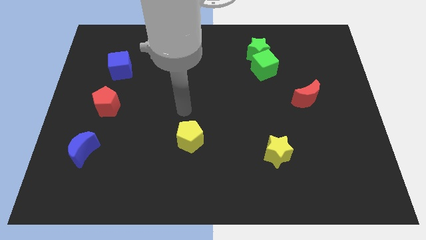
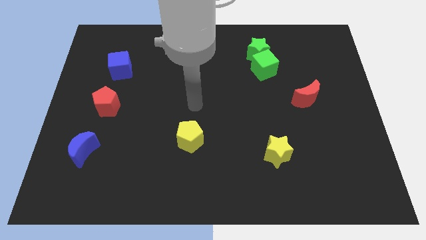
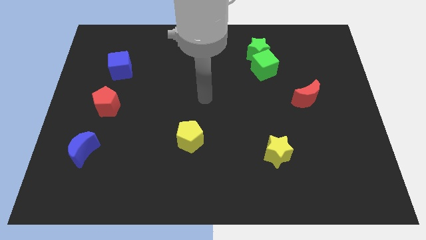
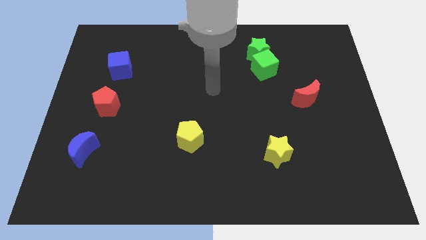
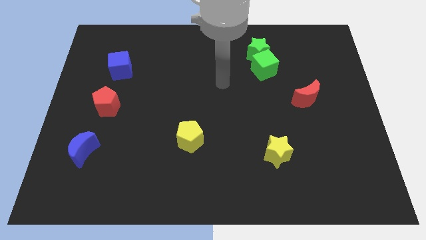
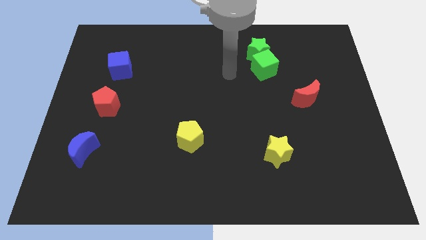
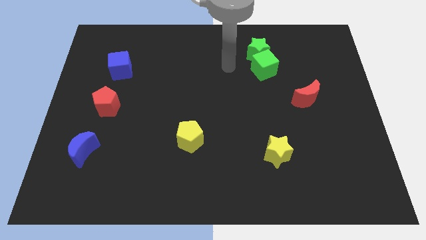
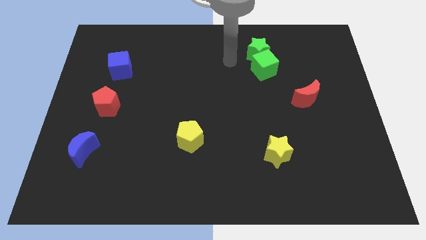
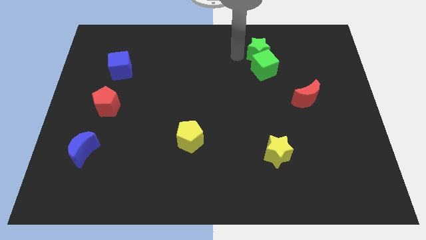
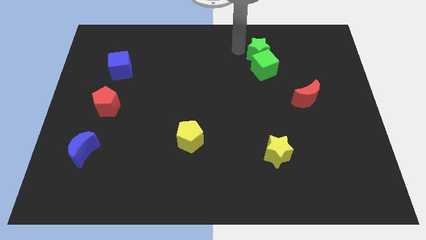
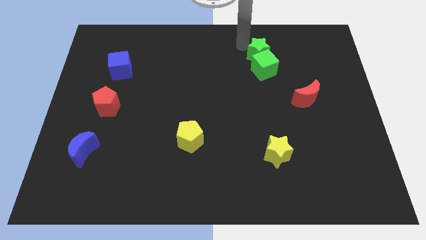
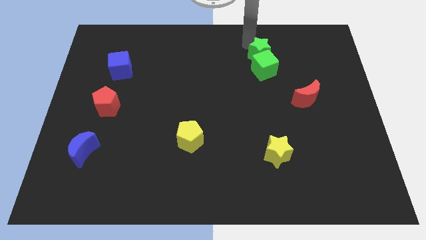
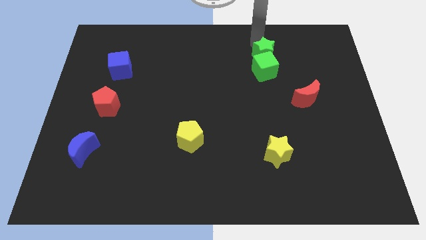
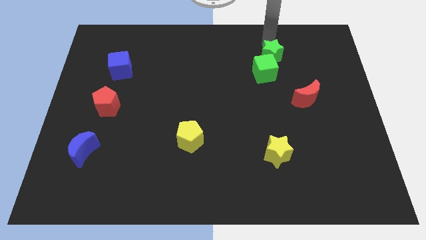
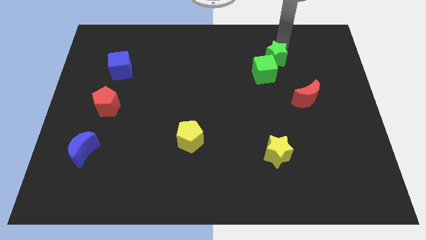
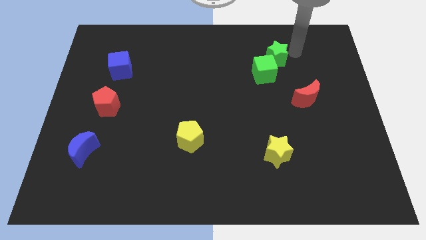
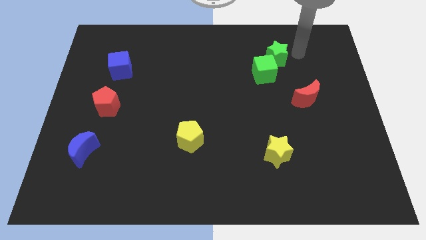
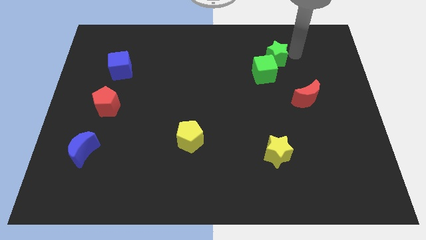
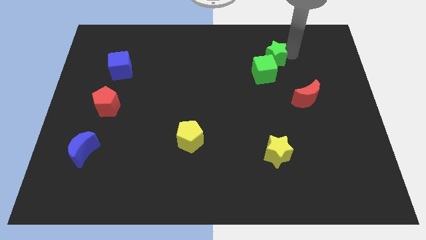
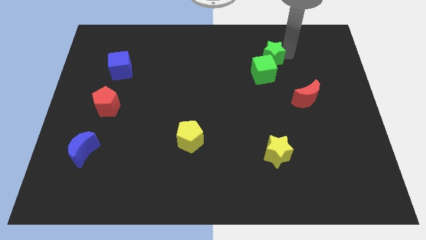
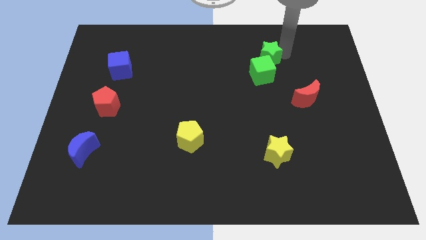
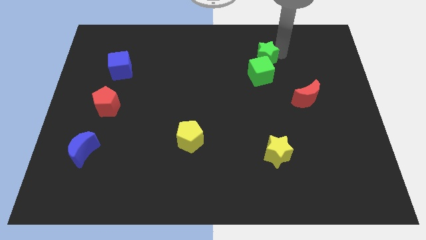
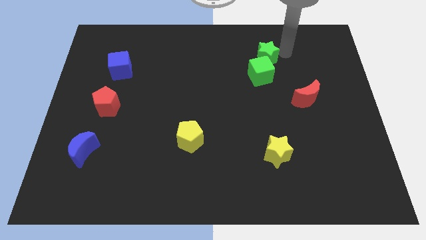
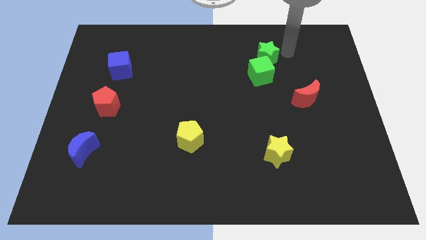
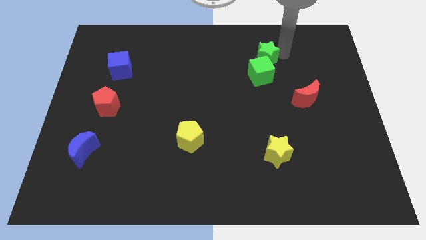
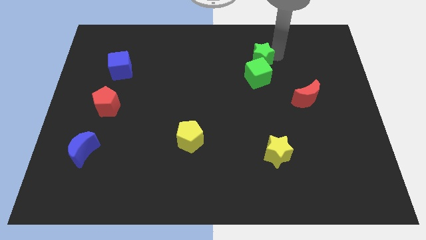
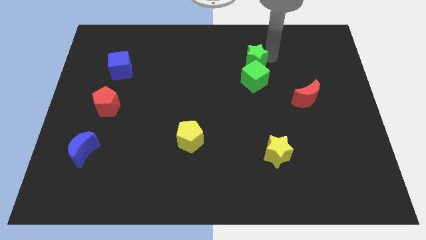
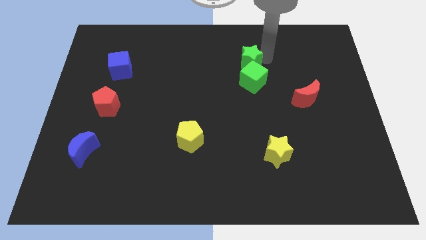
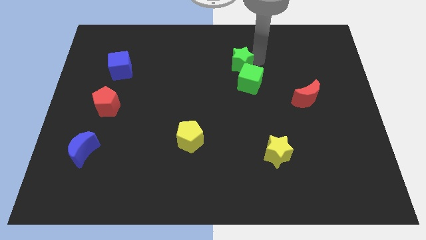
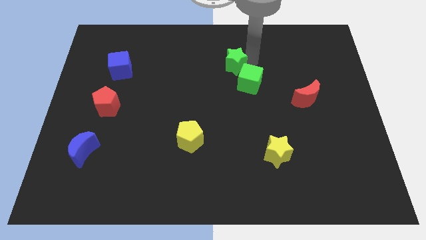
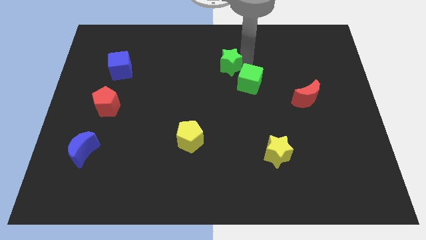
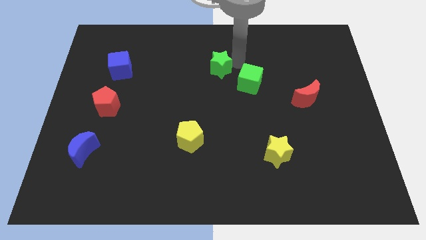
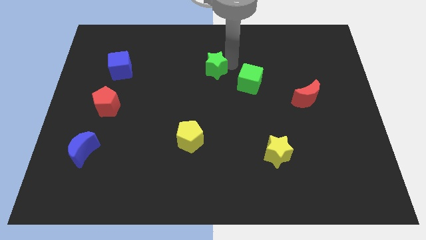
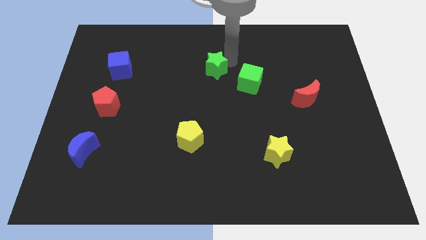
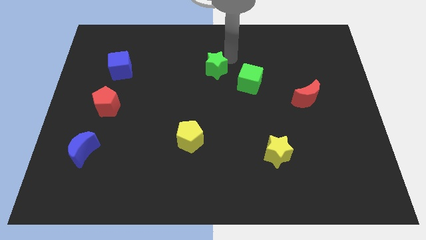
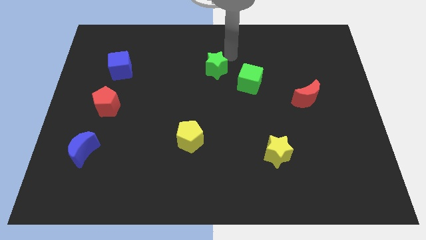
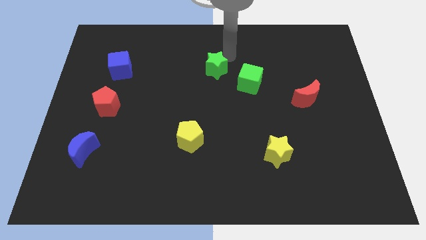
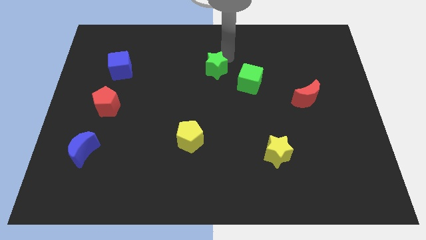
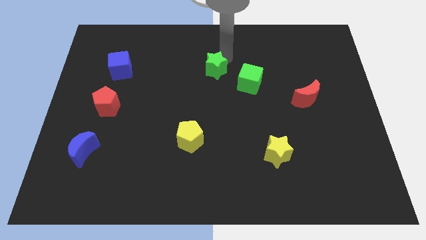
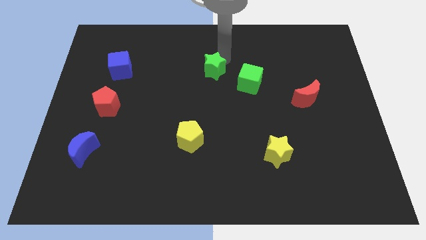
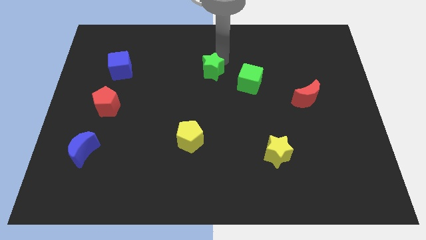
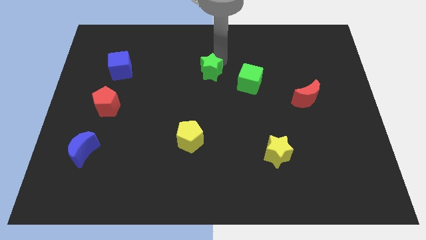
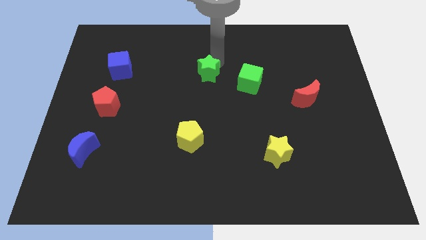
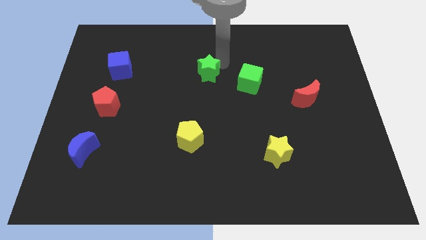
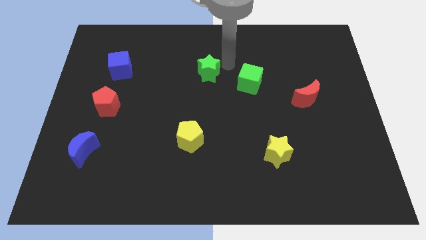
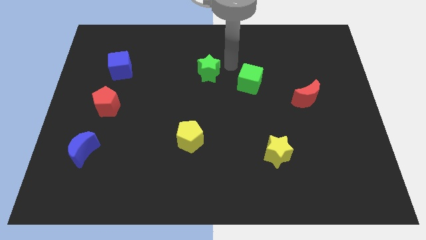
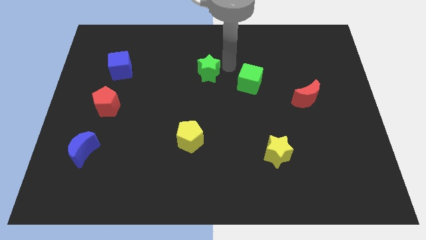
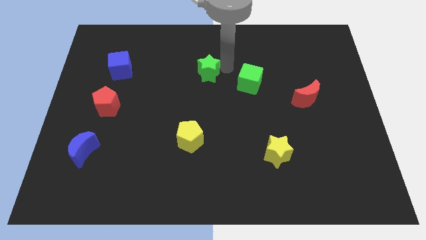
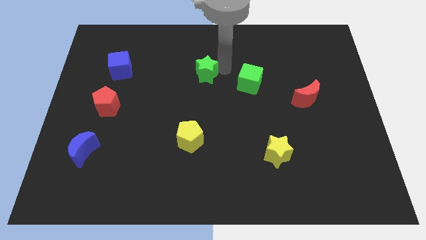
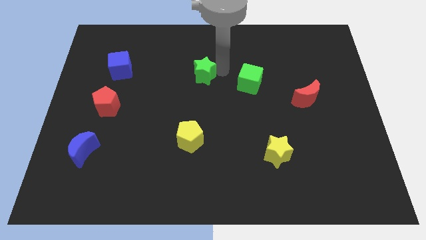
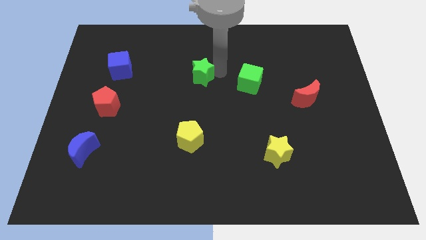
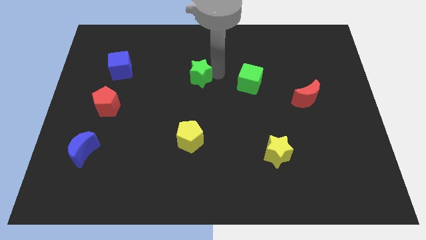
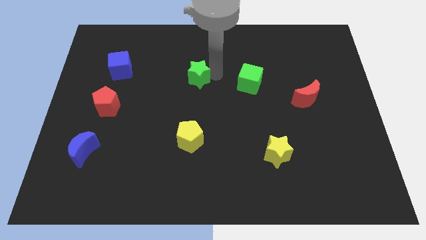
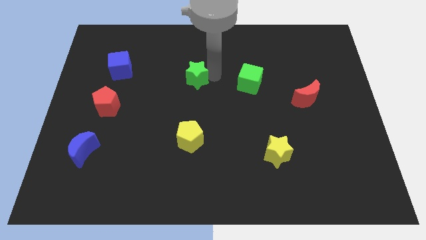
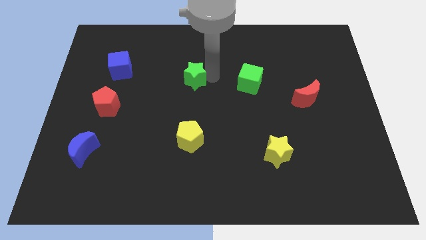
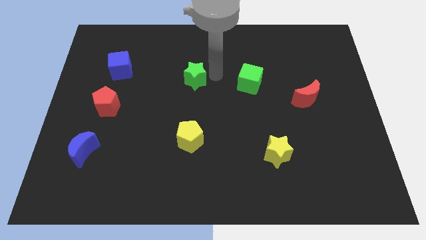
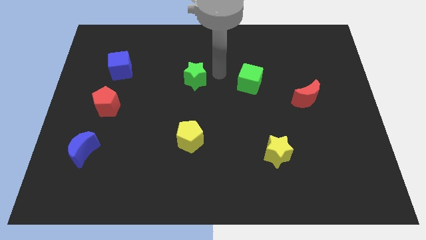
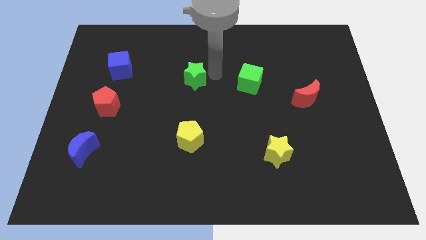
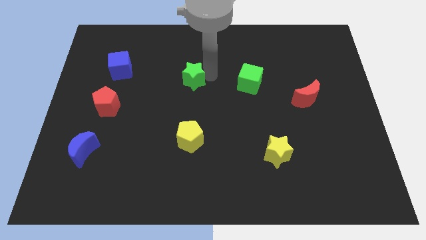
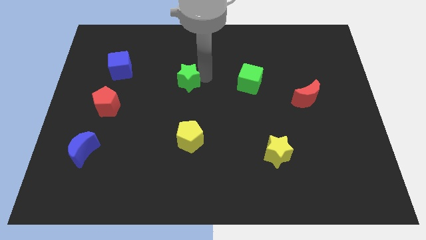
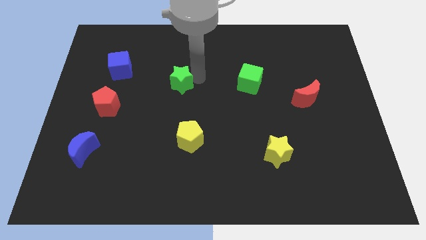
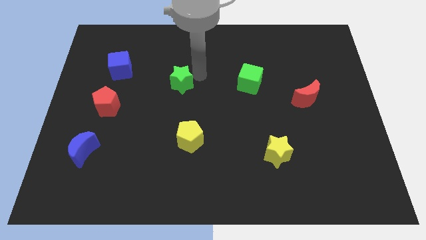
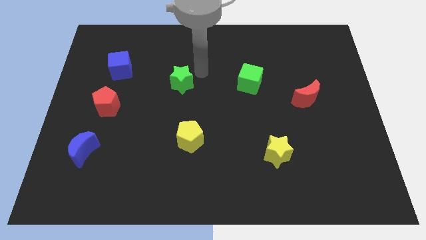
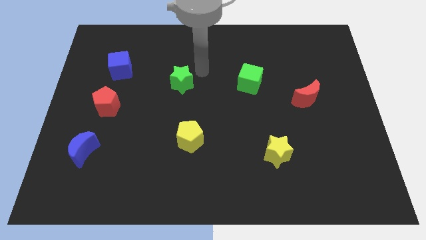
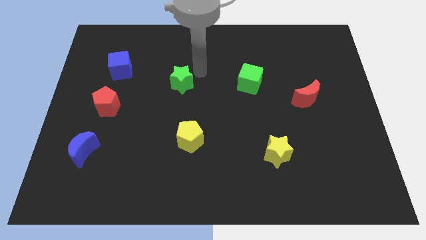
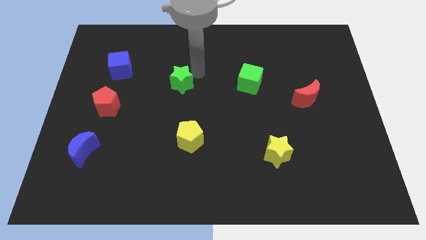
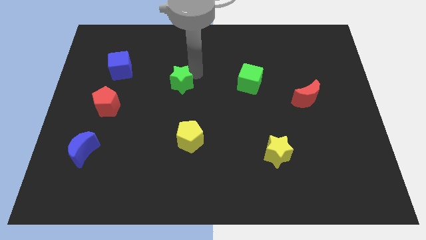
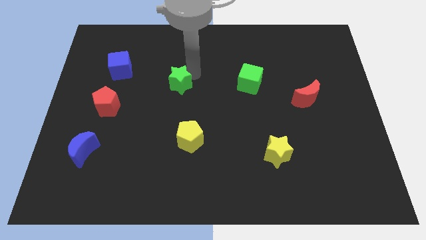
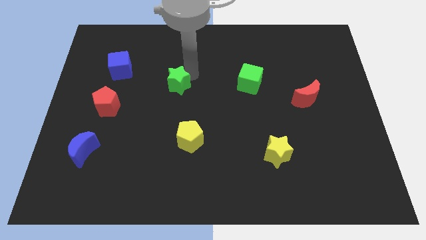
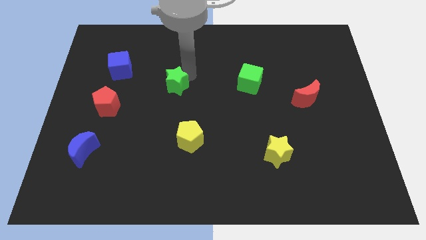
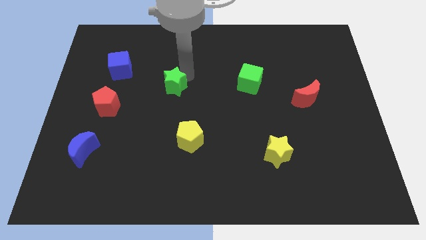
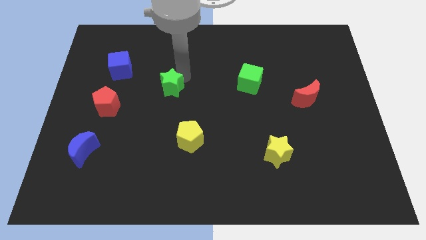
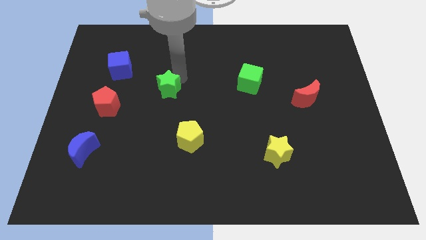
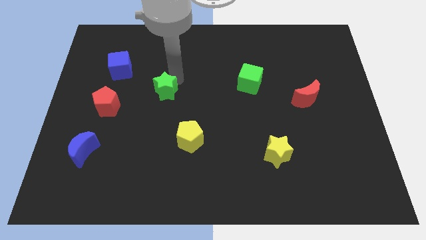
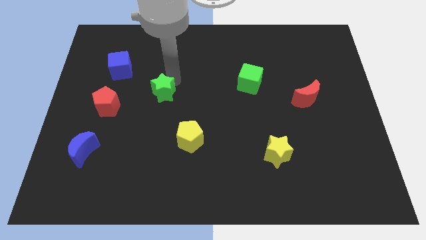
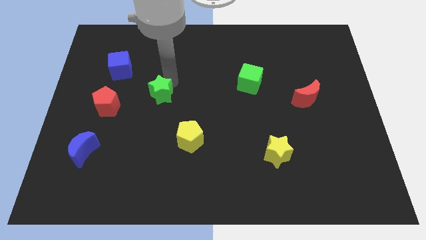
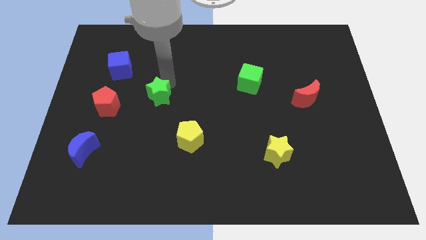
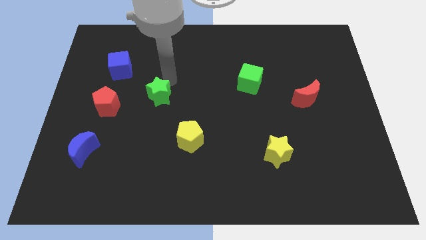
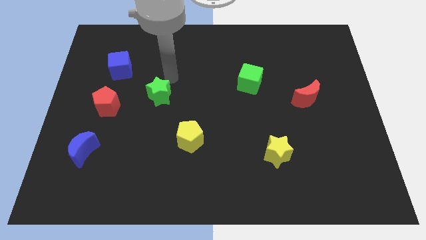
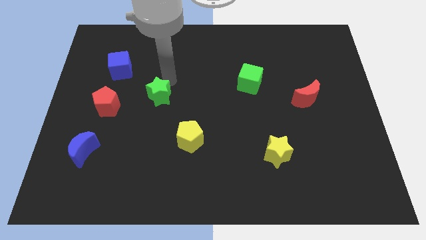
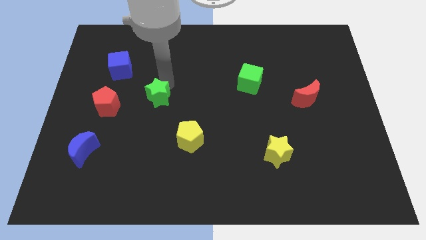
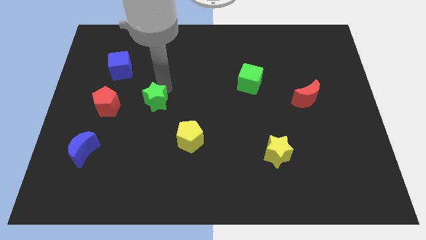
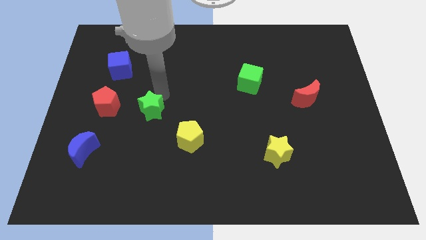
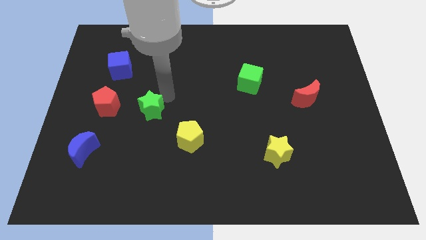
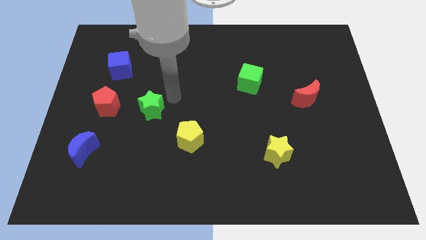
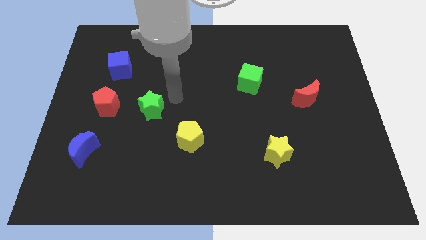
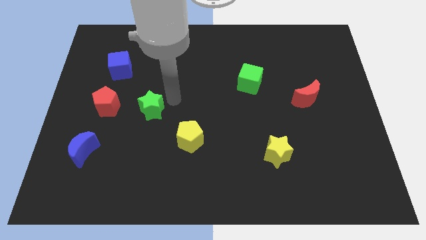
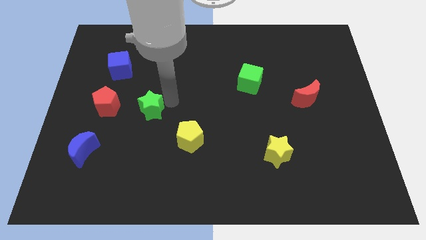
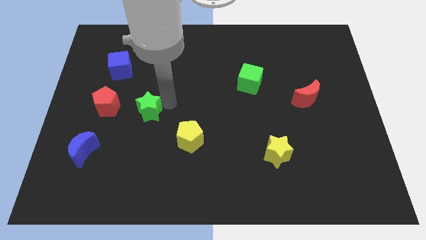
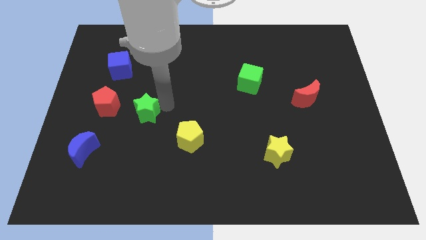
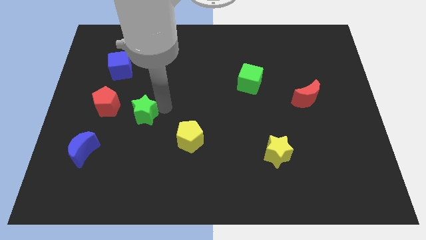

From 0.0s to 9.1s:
put the green star diagonally down and to the right of the red pentagon
